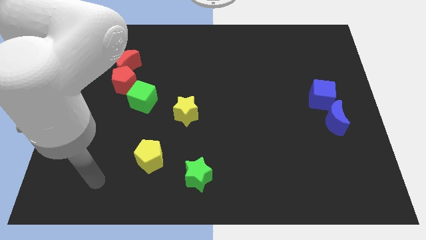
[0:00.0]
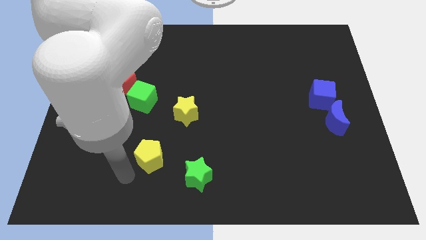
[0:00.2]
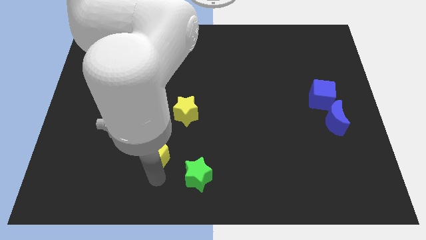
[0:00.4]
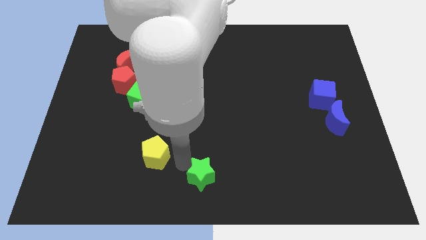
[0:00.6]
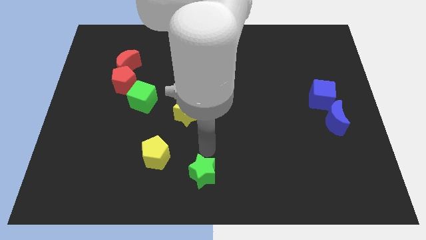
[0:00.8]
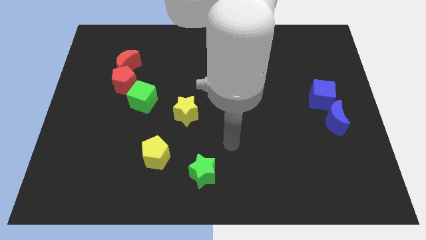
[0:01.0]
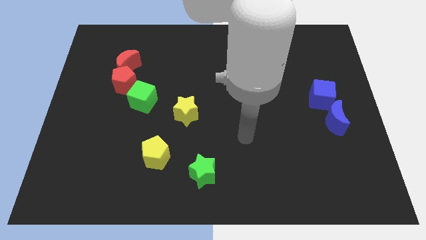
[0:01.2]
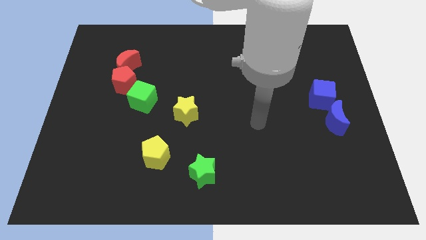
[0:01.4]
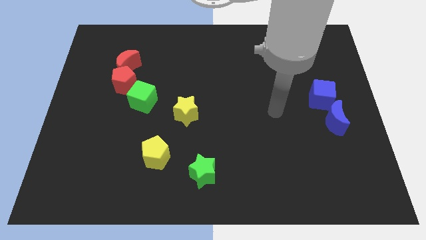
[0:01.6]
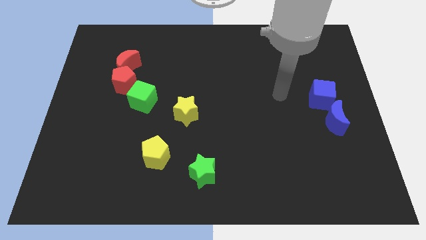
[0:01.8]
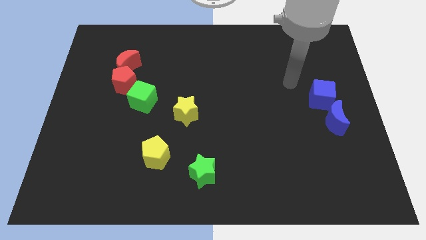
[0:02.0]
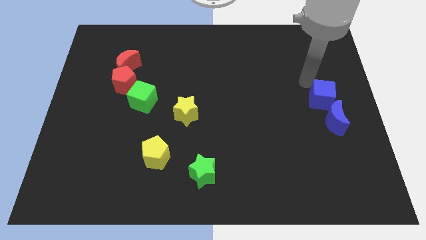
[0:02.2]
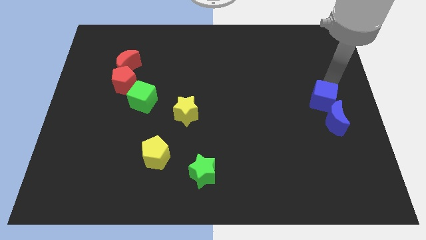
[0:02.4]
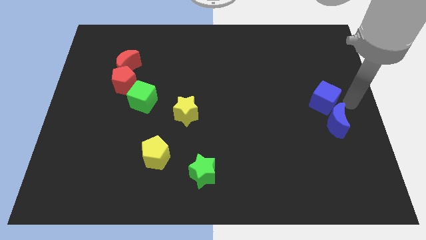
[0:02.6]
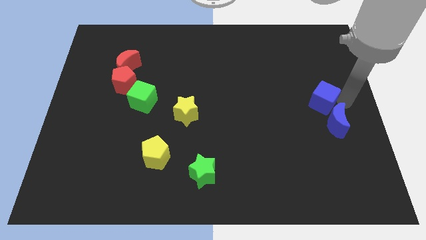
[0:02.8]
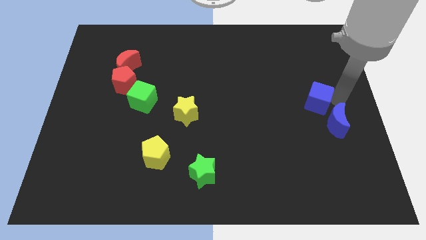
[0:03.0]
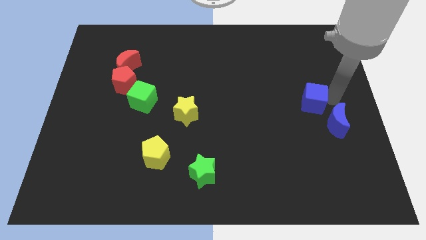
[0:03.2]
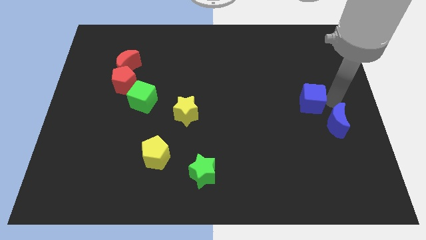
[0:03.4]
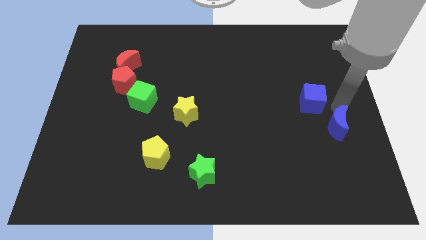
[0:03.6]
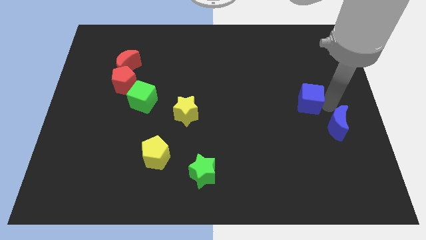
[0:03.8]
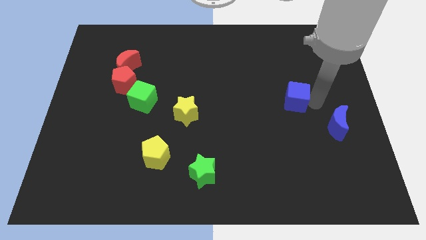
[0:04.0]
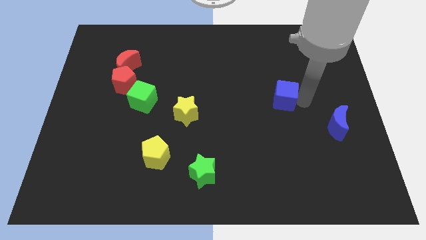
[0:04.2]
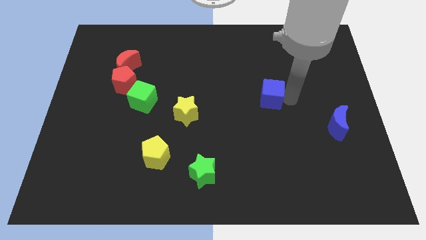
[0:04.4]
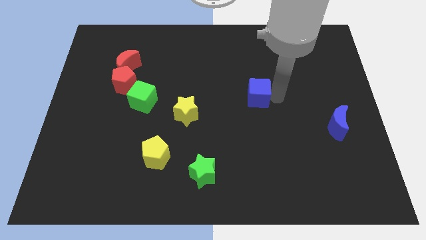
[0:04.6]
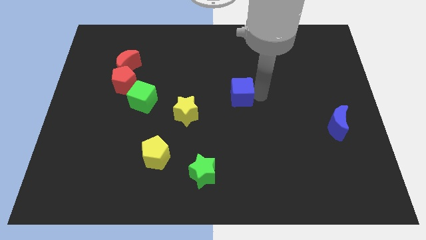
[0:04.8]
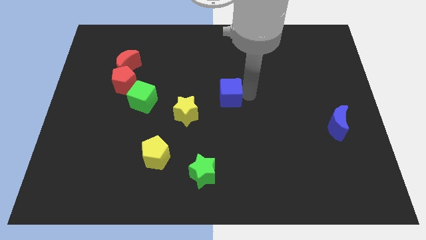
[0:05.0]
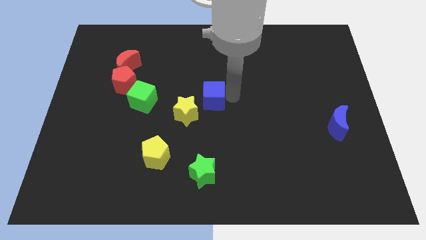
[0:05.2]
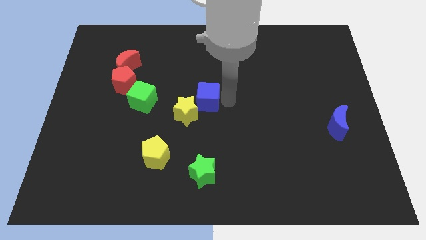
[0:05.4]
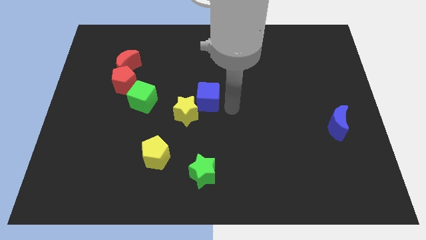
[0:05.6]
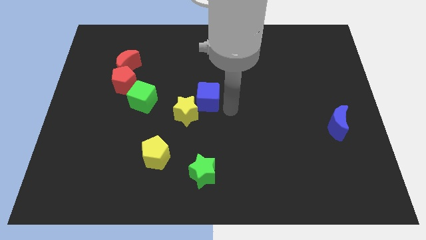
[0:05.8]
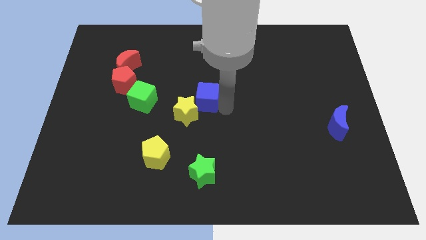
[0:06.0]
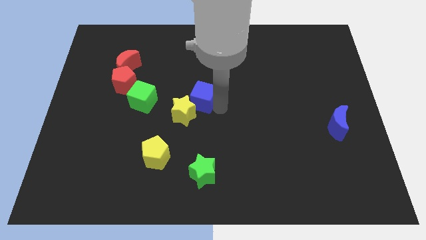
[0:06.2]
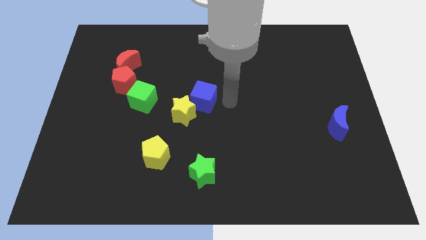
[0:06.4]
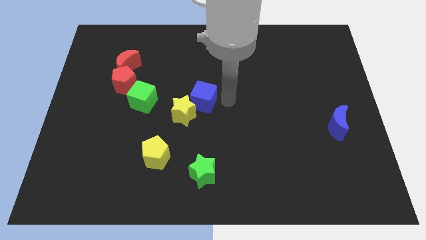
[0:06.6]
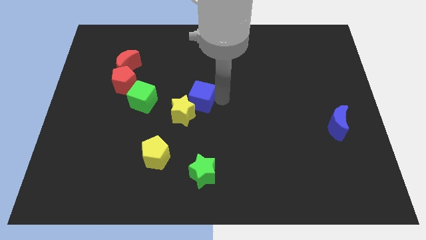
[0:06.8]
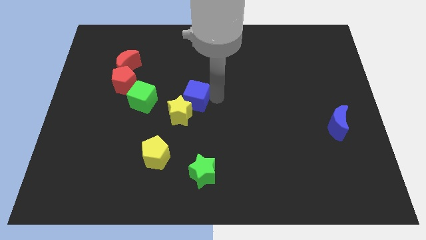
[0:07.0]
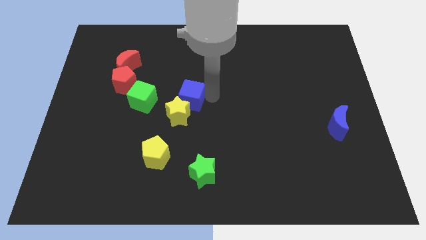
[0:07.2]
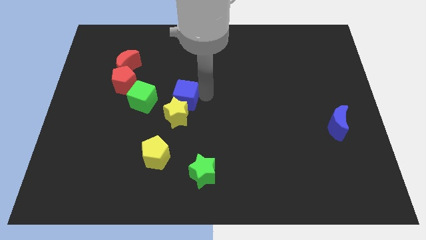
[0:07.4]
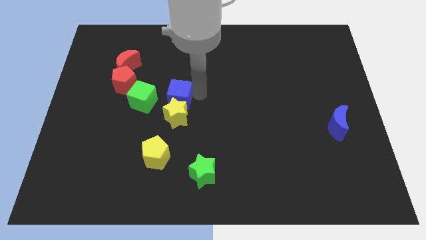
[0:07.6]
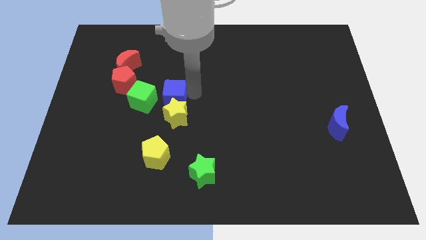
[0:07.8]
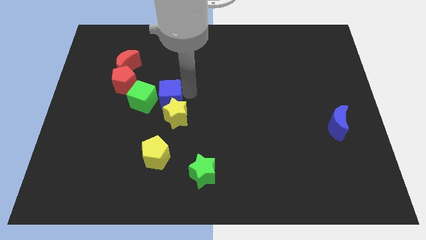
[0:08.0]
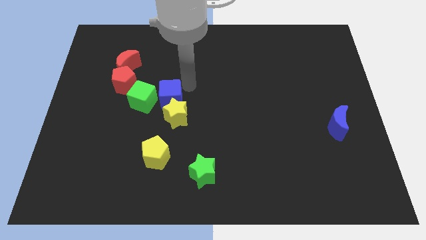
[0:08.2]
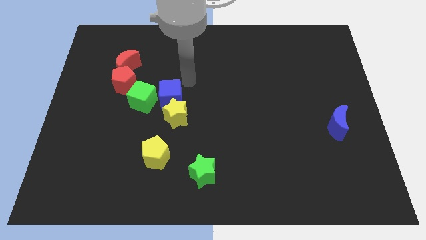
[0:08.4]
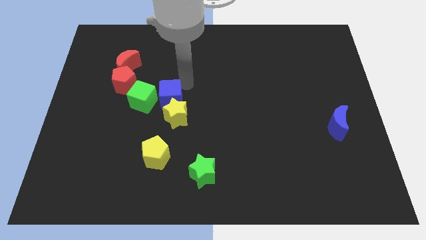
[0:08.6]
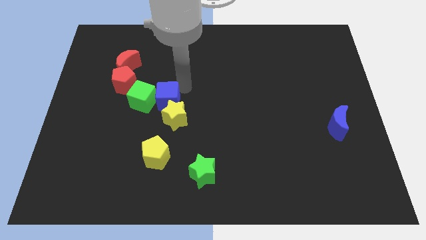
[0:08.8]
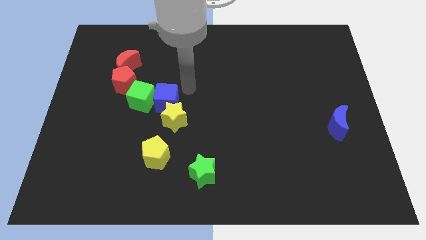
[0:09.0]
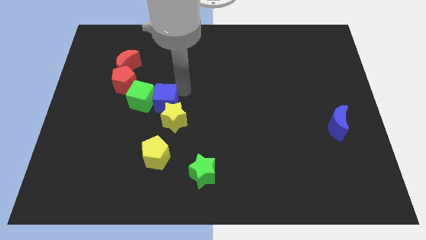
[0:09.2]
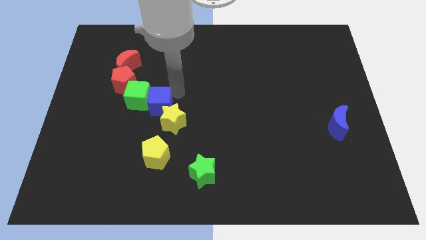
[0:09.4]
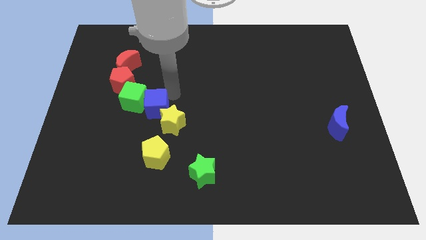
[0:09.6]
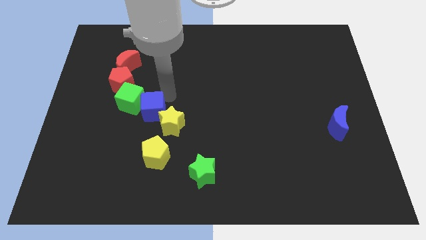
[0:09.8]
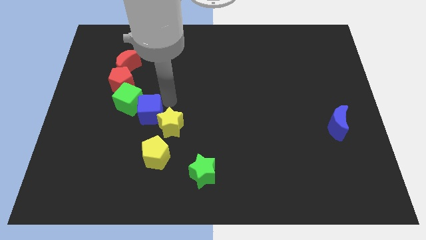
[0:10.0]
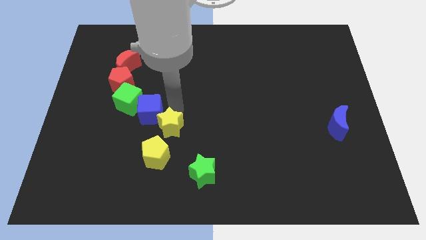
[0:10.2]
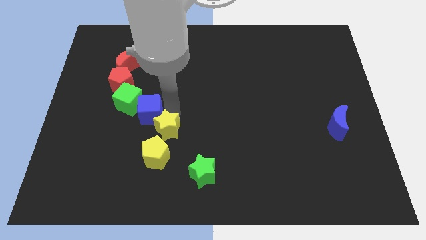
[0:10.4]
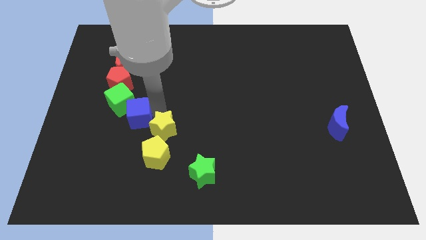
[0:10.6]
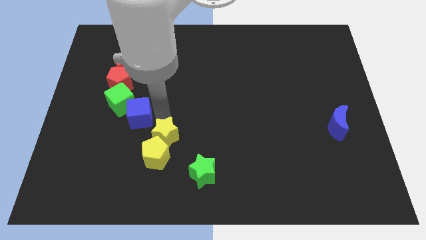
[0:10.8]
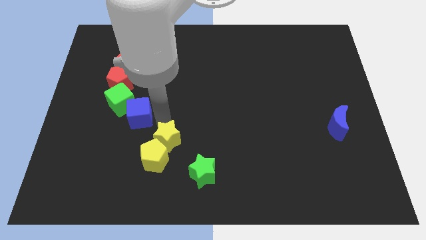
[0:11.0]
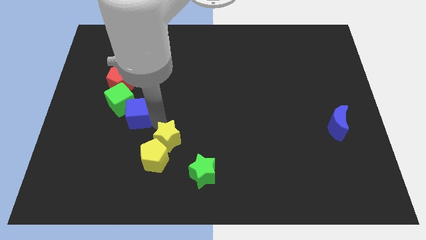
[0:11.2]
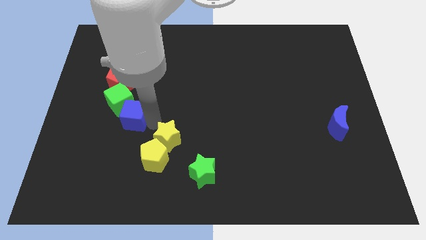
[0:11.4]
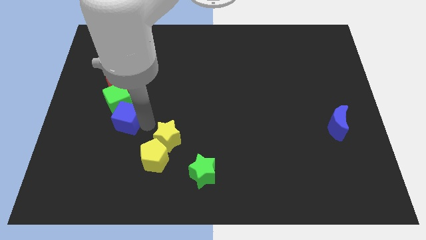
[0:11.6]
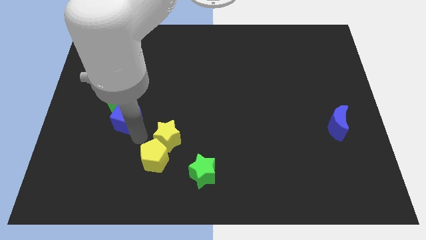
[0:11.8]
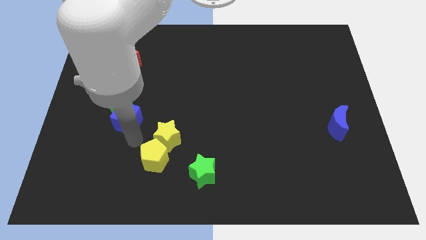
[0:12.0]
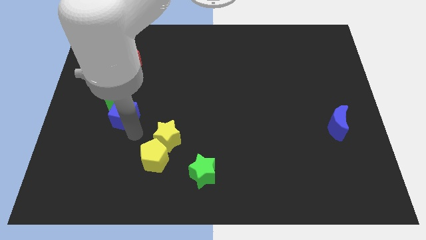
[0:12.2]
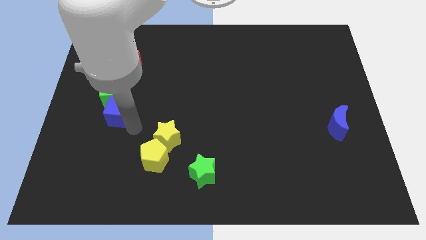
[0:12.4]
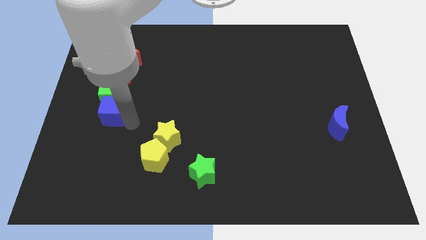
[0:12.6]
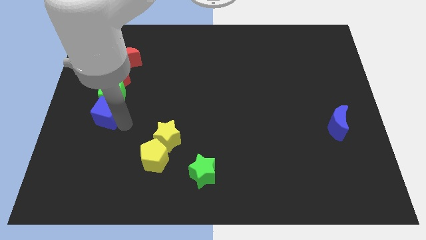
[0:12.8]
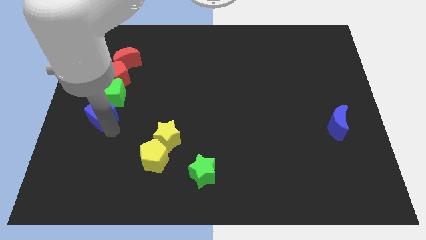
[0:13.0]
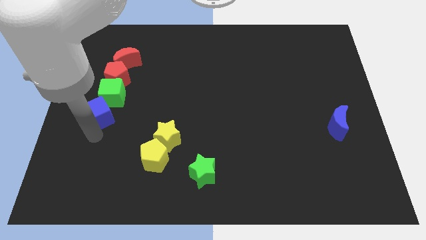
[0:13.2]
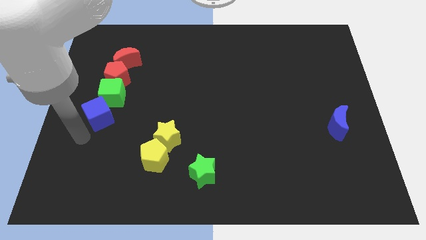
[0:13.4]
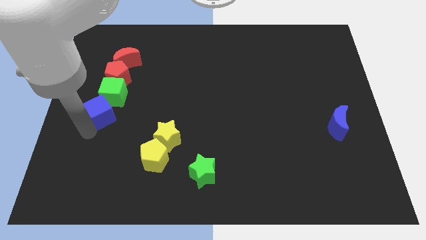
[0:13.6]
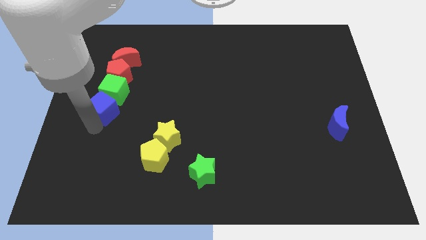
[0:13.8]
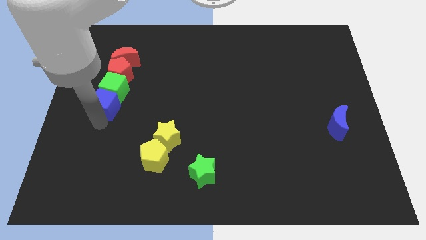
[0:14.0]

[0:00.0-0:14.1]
put the blue cube to the bottom side of the red moon

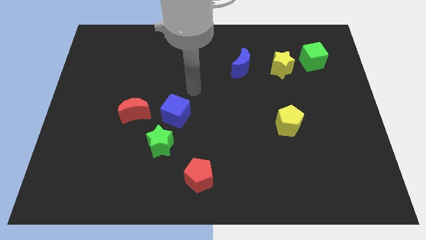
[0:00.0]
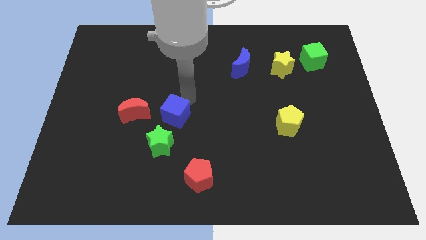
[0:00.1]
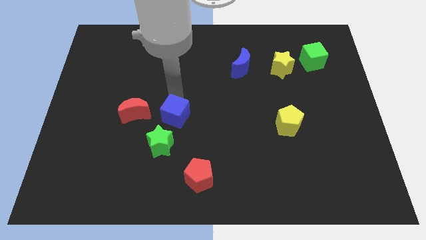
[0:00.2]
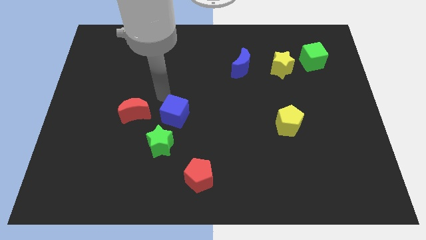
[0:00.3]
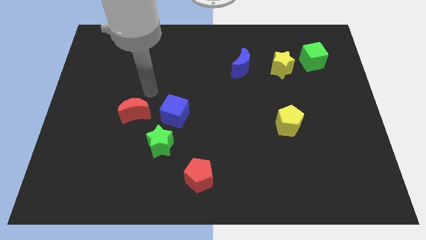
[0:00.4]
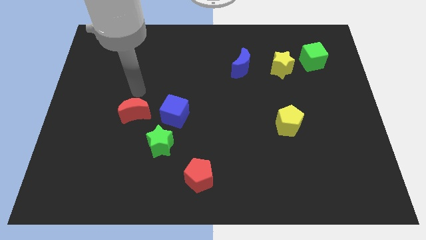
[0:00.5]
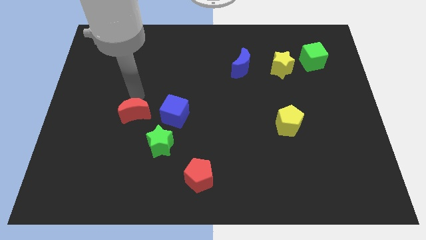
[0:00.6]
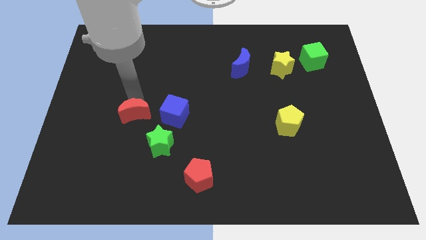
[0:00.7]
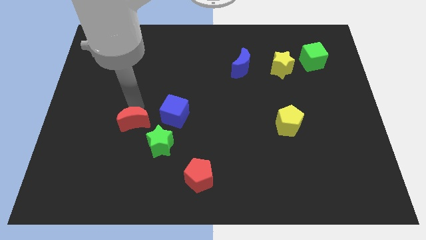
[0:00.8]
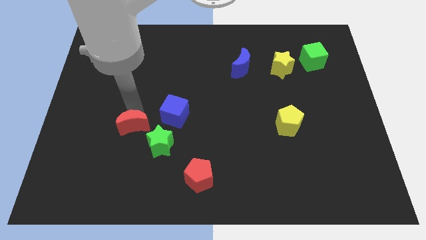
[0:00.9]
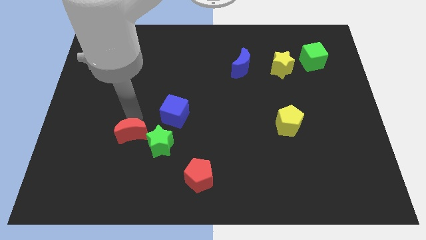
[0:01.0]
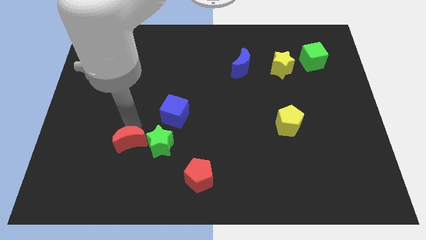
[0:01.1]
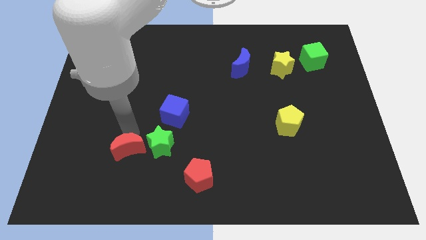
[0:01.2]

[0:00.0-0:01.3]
push the red moon to the bottom left of the green star
